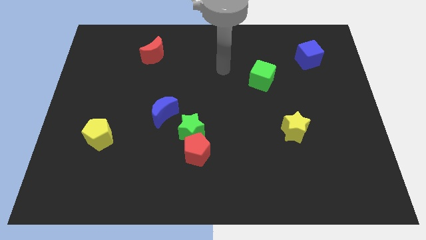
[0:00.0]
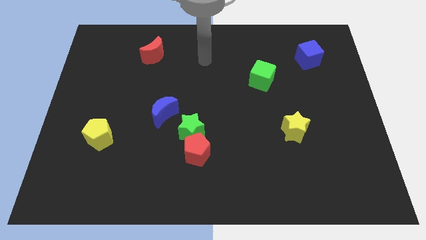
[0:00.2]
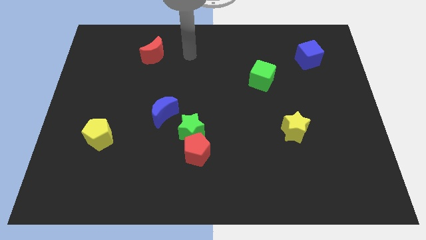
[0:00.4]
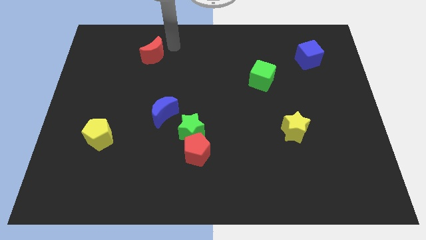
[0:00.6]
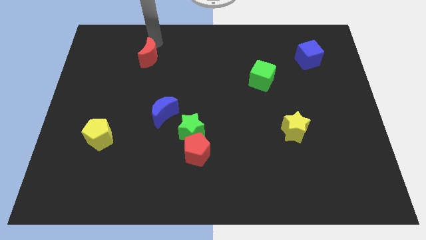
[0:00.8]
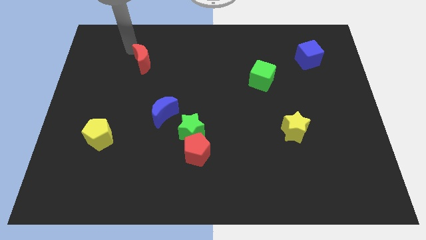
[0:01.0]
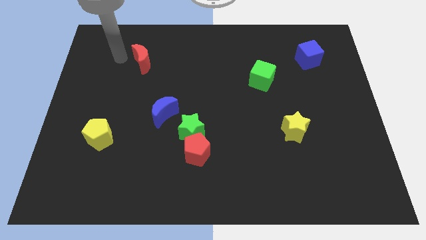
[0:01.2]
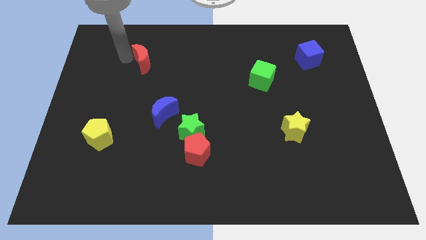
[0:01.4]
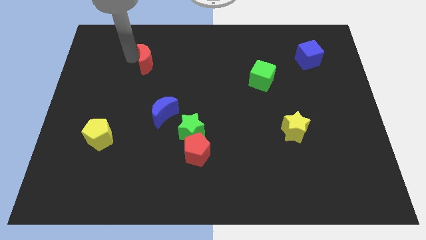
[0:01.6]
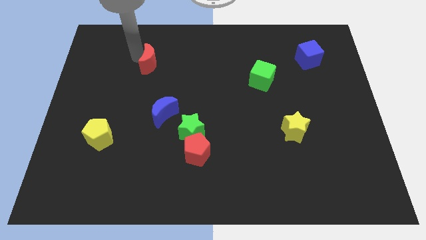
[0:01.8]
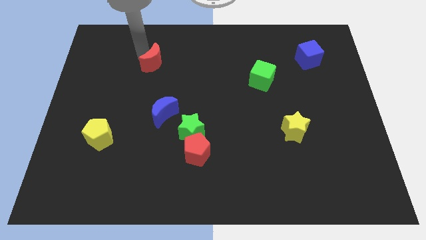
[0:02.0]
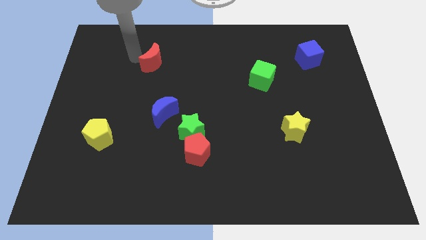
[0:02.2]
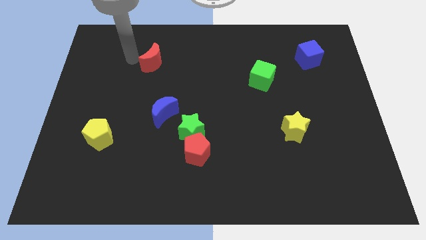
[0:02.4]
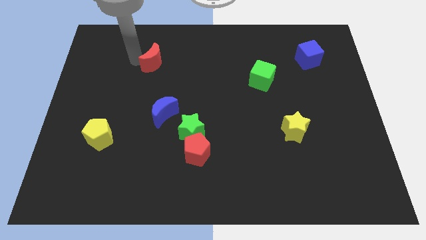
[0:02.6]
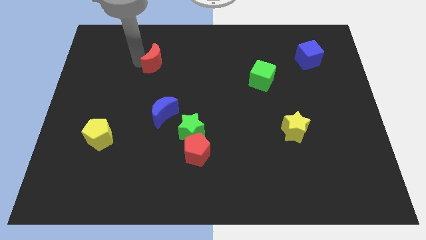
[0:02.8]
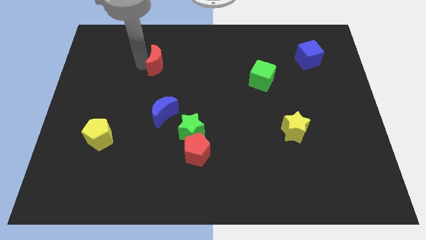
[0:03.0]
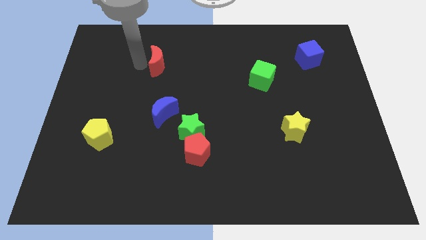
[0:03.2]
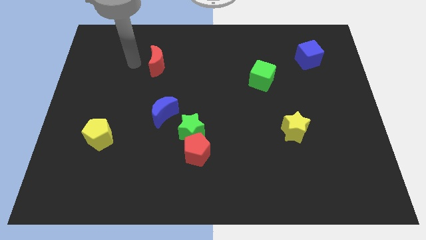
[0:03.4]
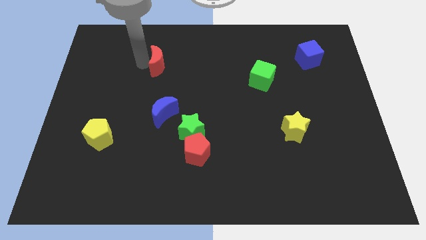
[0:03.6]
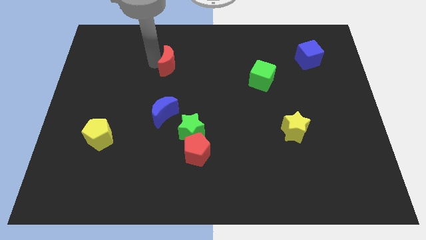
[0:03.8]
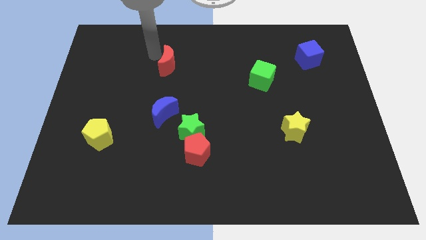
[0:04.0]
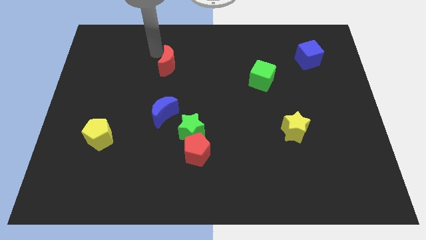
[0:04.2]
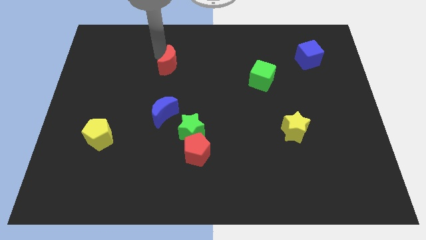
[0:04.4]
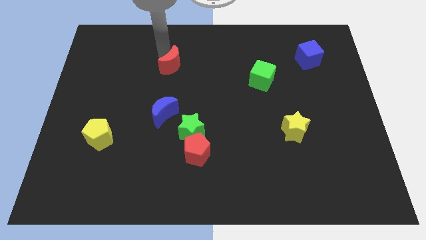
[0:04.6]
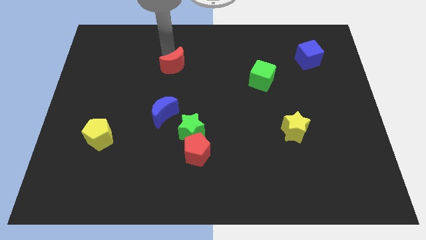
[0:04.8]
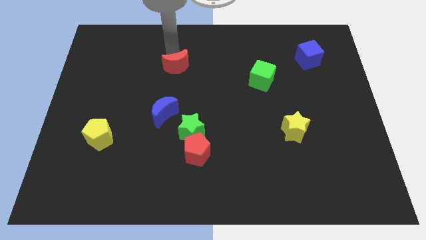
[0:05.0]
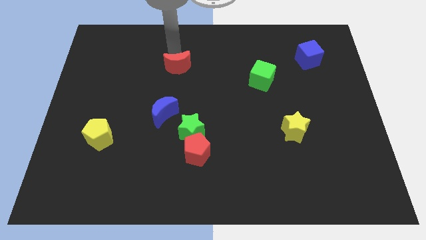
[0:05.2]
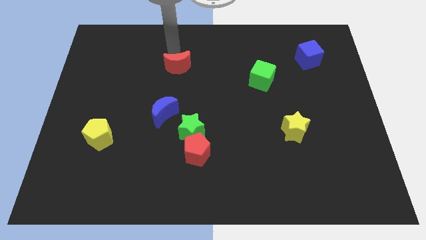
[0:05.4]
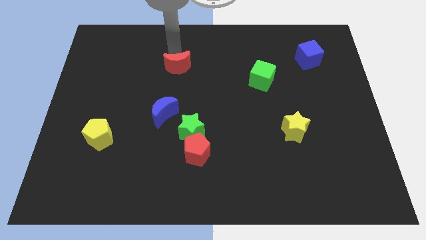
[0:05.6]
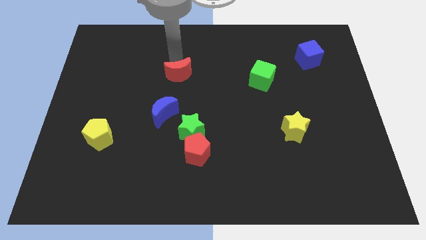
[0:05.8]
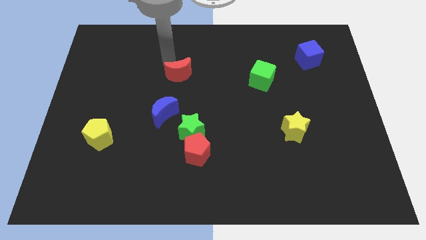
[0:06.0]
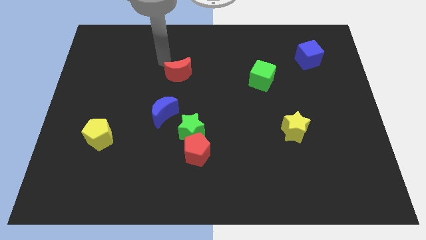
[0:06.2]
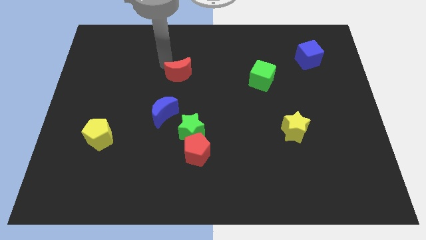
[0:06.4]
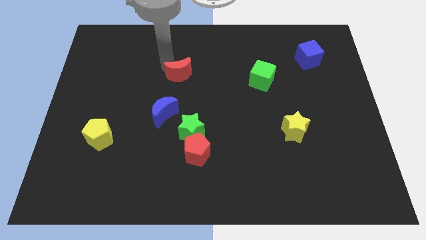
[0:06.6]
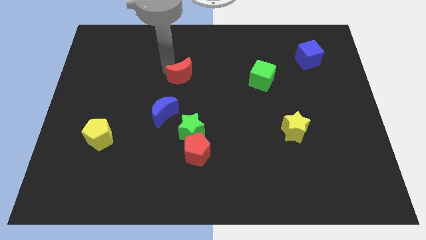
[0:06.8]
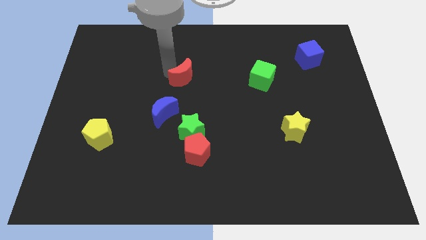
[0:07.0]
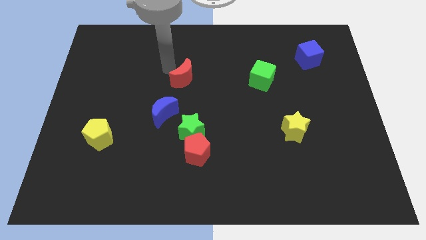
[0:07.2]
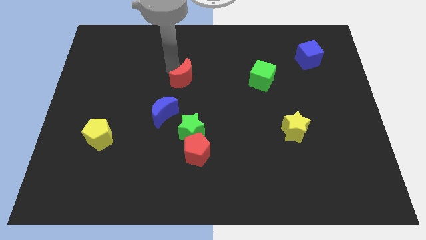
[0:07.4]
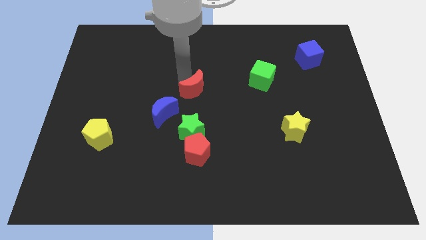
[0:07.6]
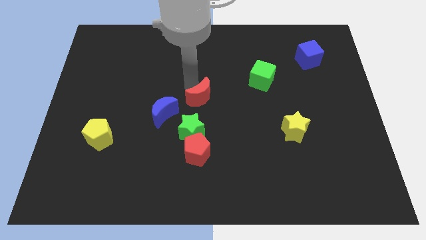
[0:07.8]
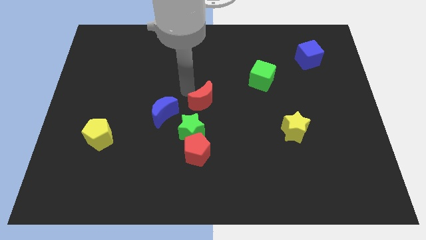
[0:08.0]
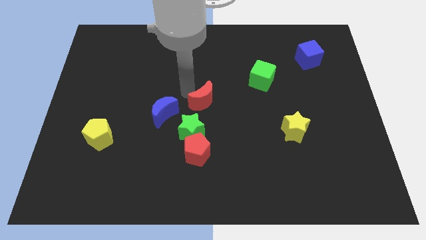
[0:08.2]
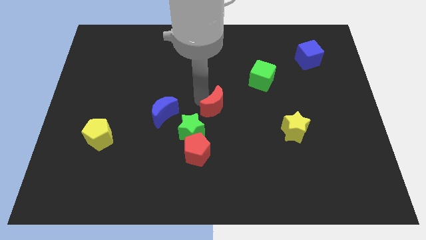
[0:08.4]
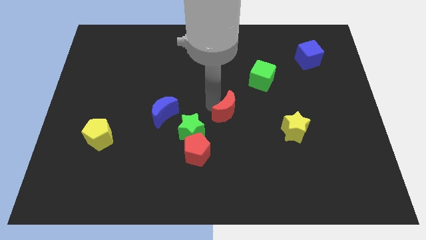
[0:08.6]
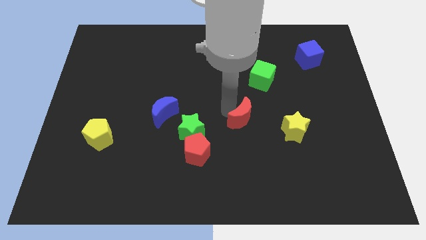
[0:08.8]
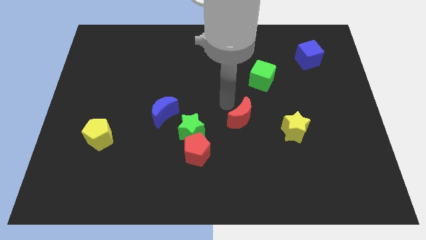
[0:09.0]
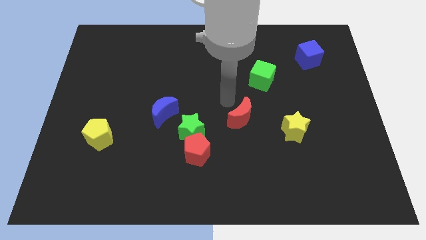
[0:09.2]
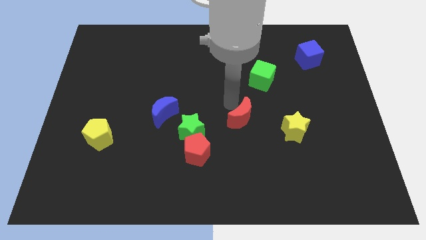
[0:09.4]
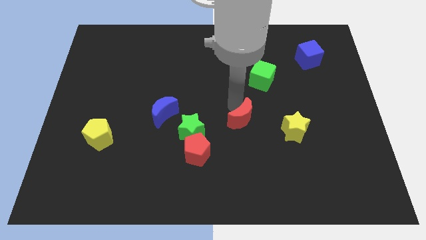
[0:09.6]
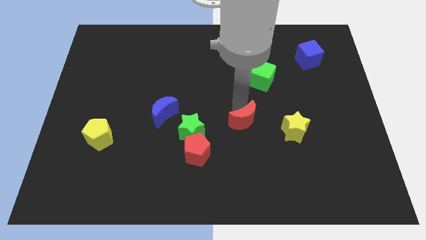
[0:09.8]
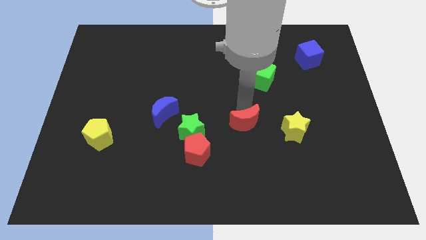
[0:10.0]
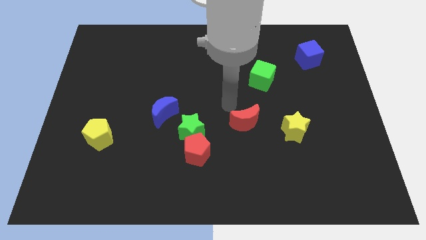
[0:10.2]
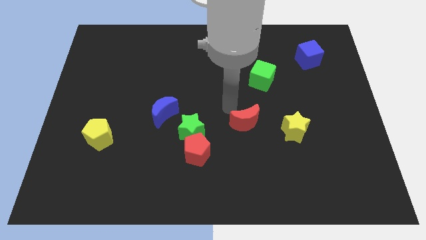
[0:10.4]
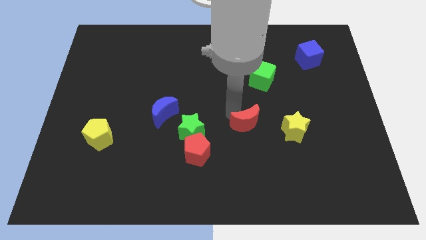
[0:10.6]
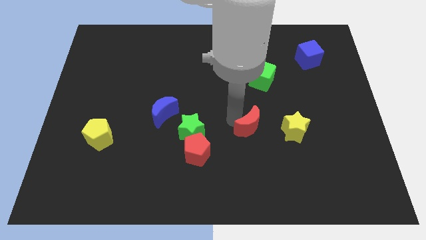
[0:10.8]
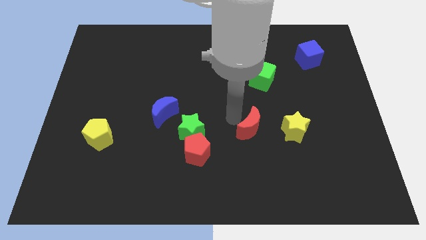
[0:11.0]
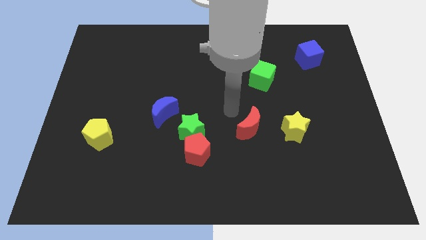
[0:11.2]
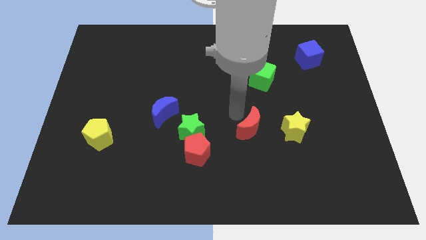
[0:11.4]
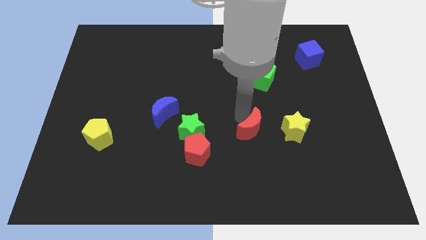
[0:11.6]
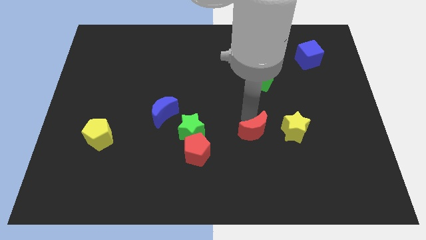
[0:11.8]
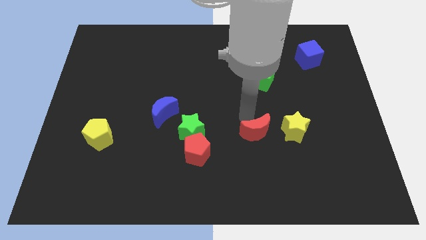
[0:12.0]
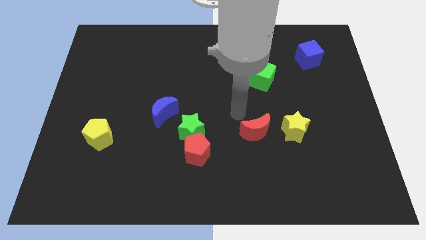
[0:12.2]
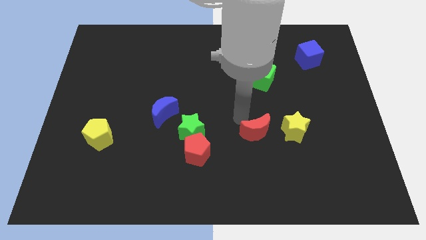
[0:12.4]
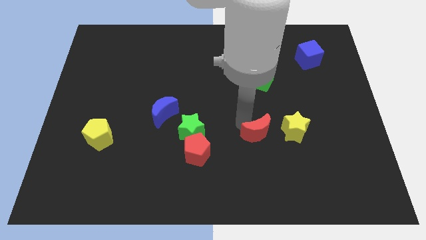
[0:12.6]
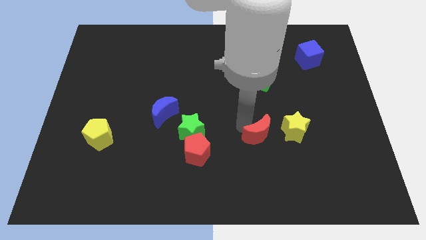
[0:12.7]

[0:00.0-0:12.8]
slide the red moon to the bottom left side of the yellow star
